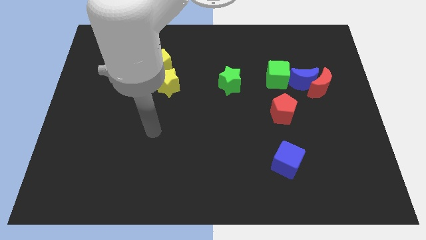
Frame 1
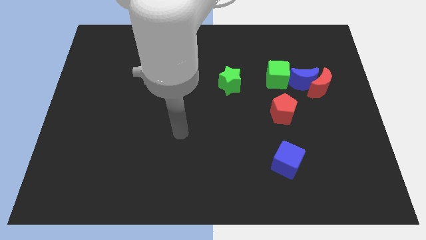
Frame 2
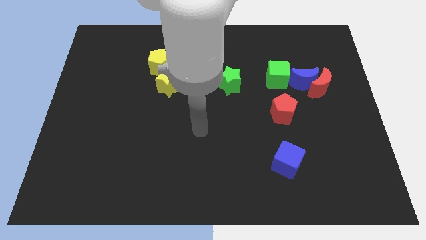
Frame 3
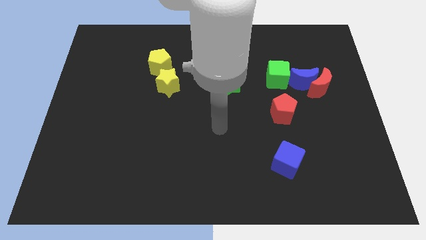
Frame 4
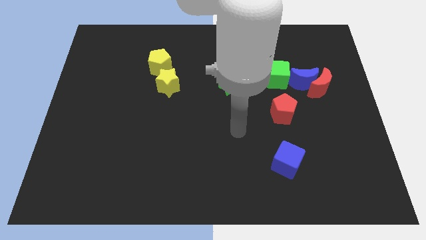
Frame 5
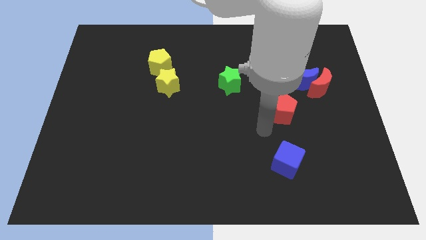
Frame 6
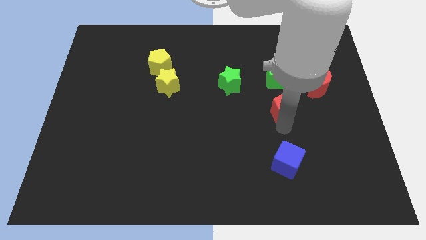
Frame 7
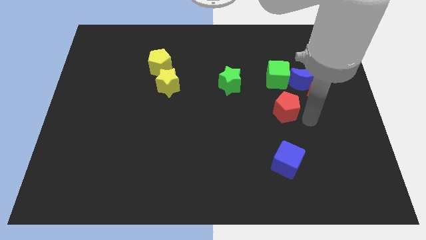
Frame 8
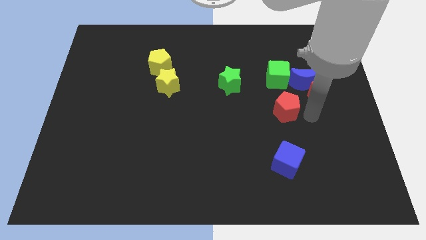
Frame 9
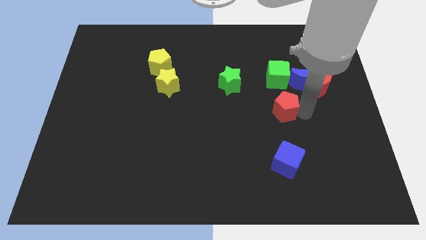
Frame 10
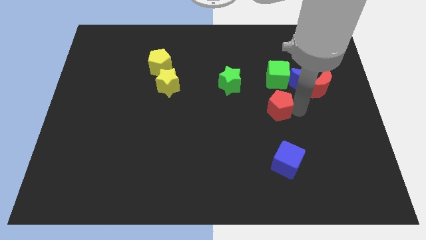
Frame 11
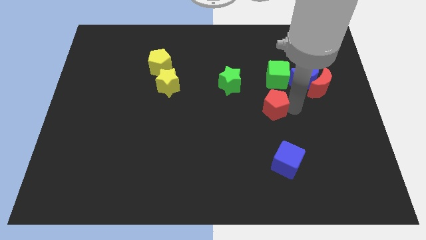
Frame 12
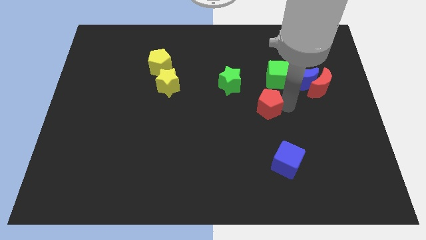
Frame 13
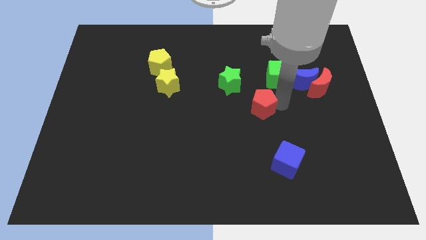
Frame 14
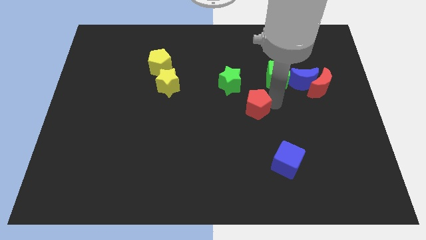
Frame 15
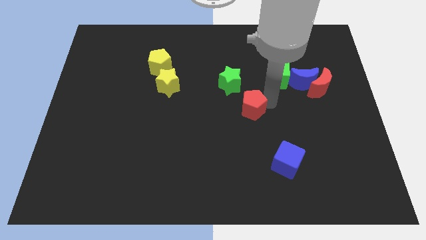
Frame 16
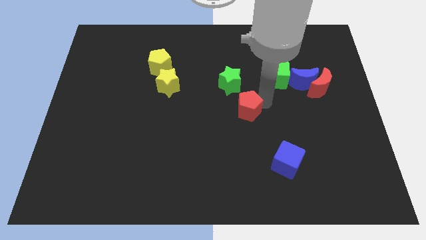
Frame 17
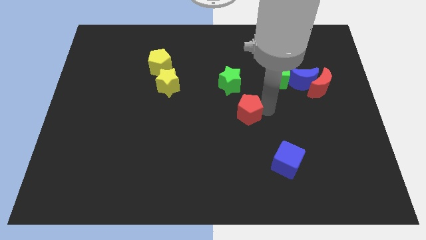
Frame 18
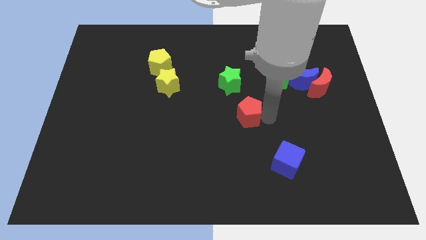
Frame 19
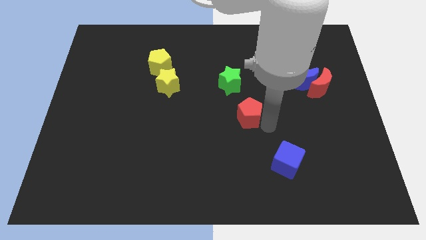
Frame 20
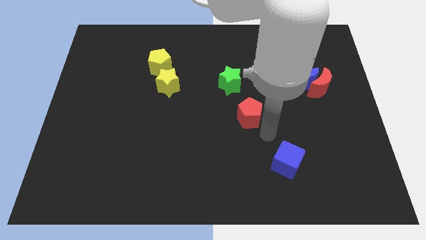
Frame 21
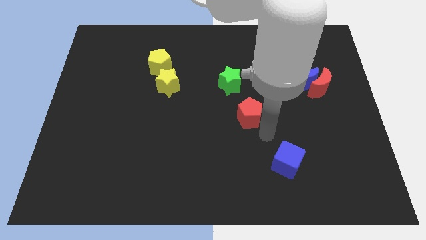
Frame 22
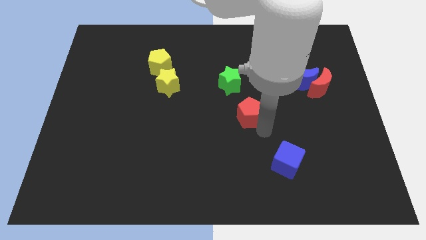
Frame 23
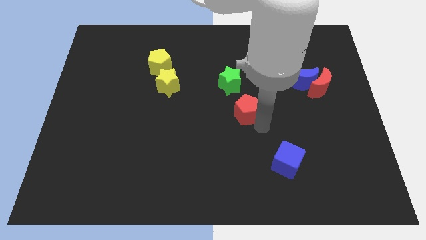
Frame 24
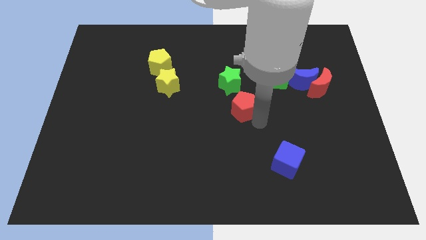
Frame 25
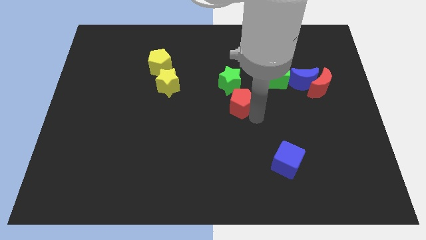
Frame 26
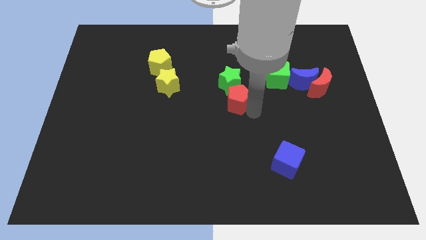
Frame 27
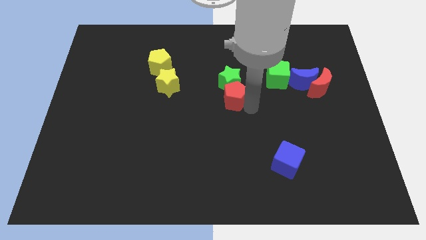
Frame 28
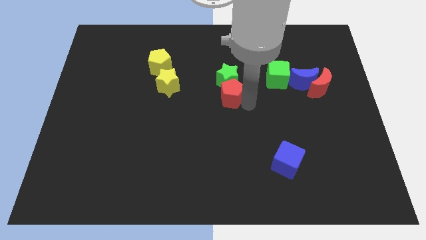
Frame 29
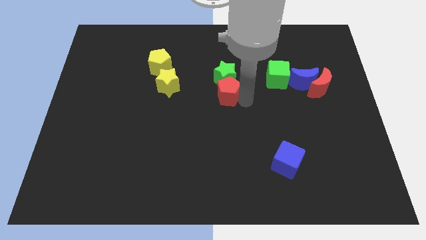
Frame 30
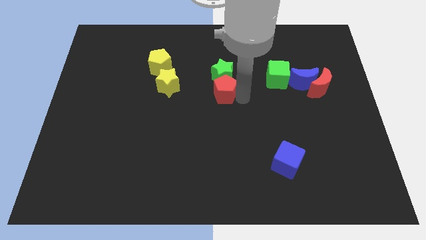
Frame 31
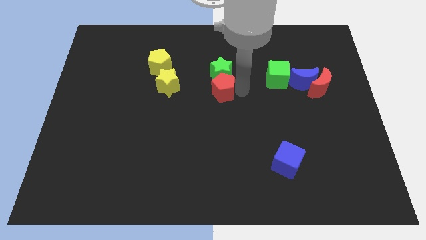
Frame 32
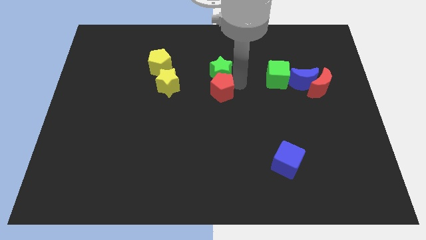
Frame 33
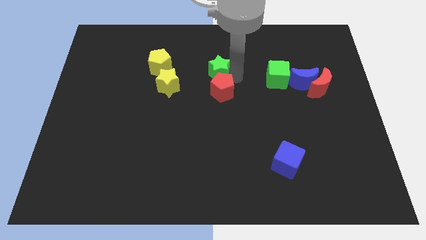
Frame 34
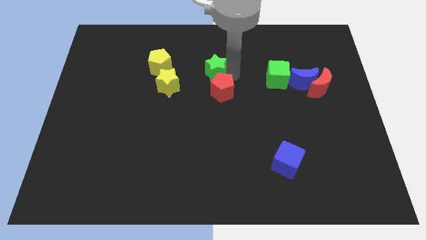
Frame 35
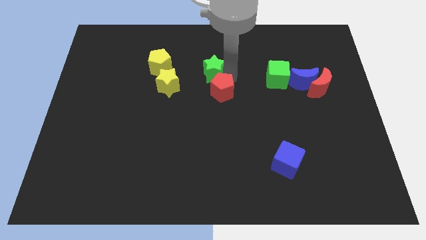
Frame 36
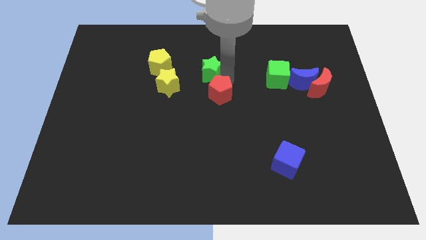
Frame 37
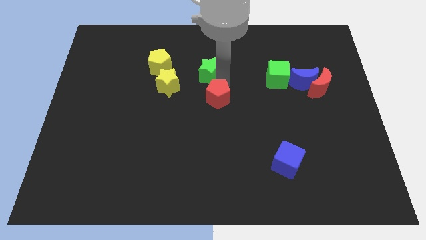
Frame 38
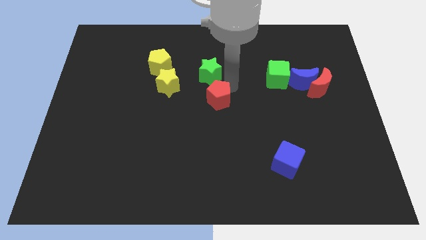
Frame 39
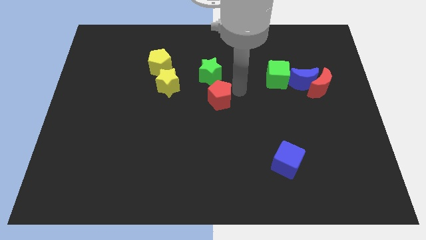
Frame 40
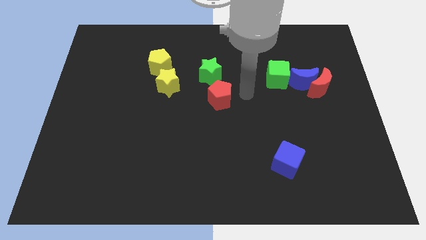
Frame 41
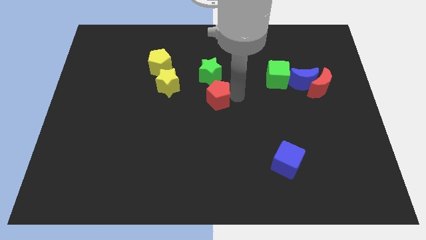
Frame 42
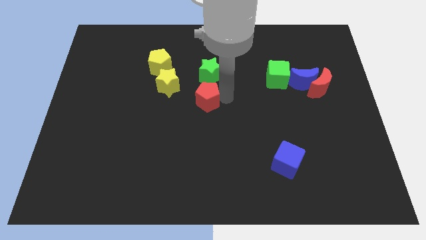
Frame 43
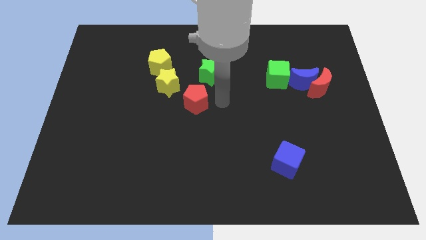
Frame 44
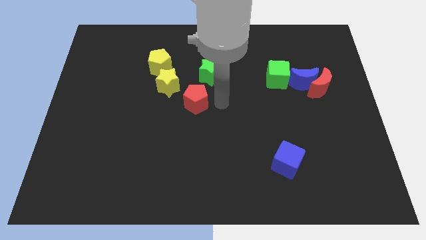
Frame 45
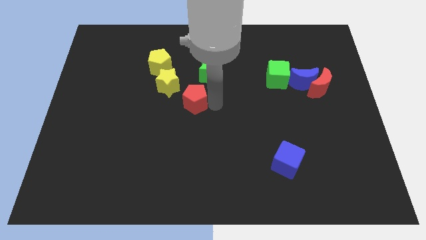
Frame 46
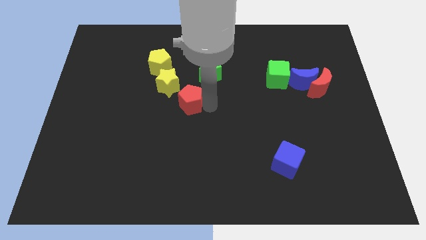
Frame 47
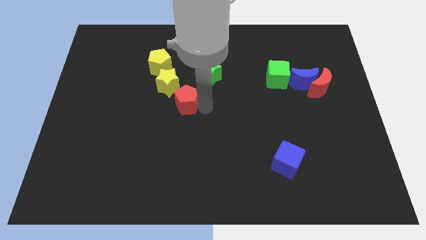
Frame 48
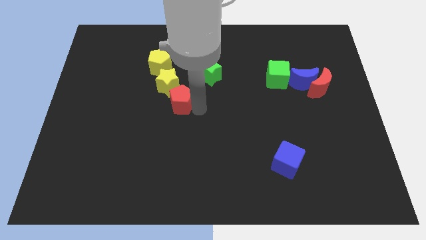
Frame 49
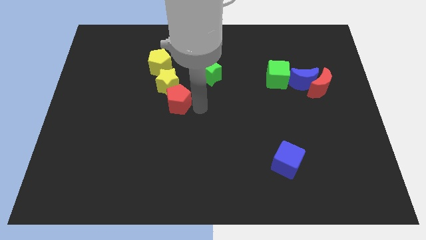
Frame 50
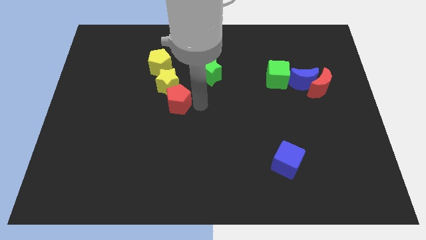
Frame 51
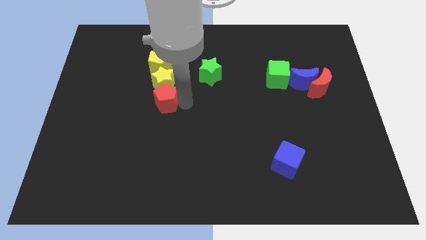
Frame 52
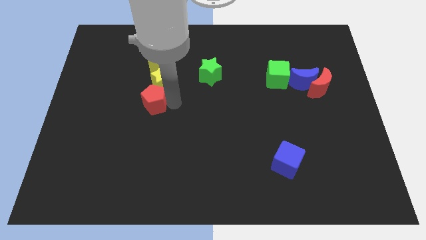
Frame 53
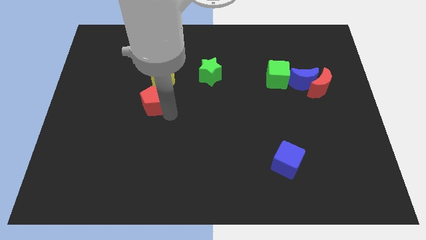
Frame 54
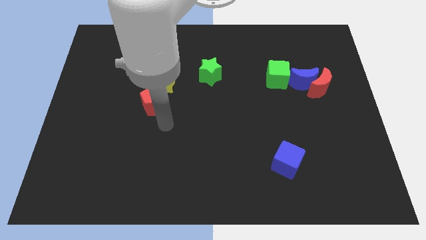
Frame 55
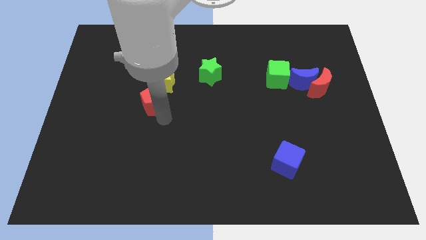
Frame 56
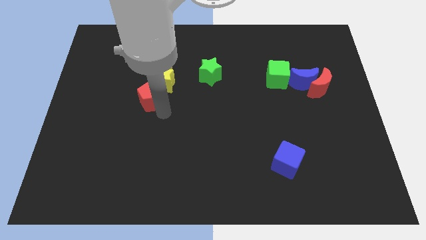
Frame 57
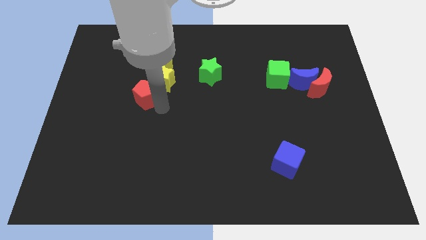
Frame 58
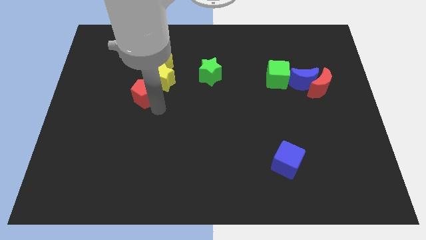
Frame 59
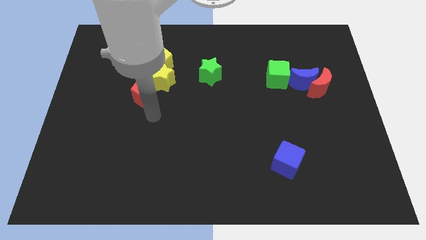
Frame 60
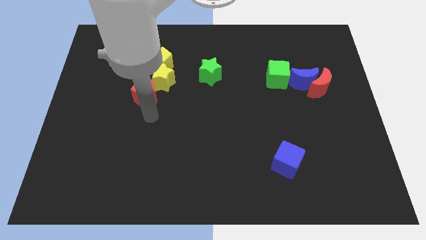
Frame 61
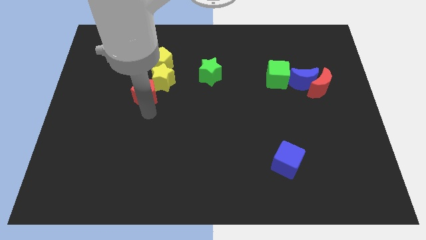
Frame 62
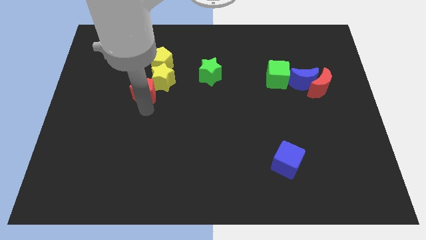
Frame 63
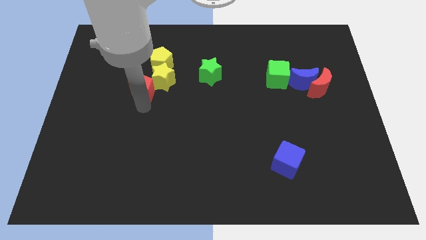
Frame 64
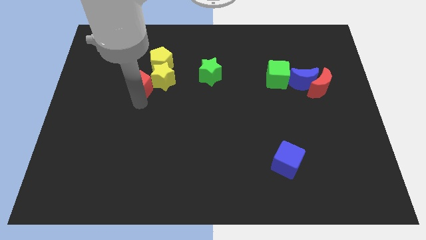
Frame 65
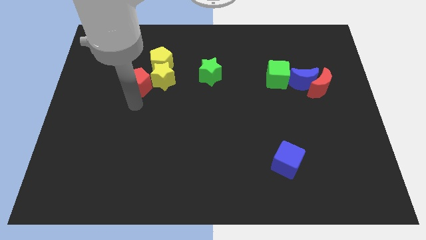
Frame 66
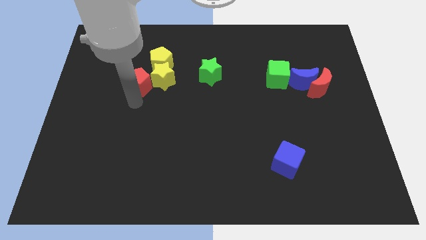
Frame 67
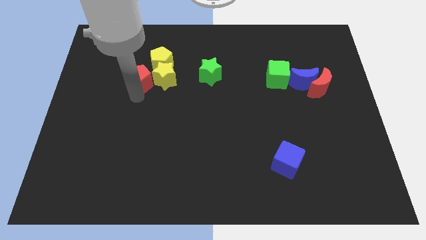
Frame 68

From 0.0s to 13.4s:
push the red pentagon diagonally up and to the left of the yellow star
